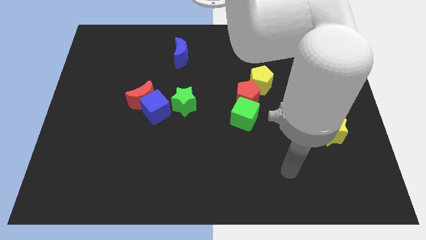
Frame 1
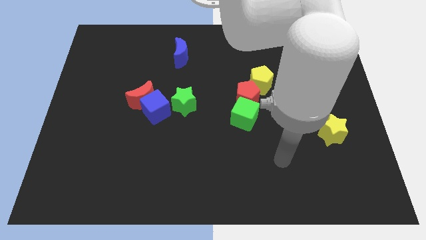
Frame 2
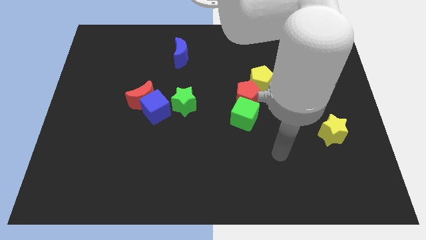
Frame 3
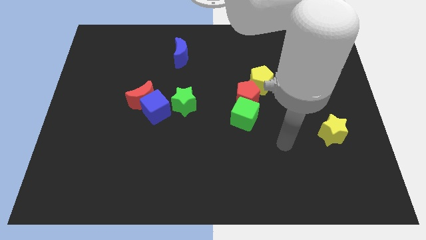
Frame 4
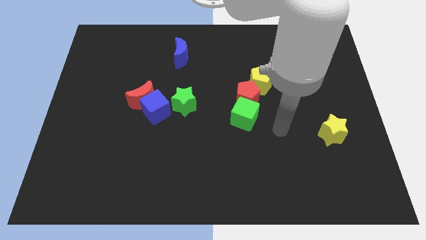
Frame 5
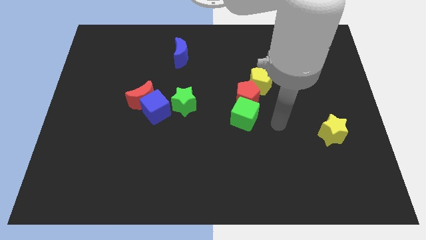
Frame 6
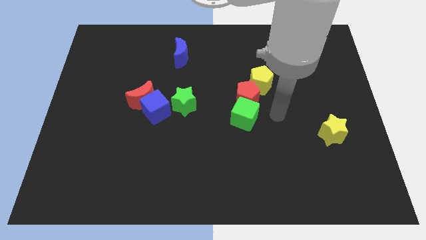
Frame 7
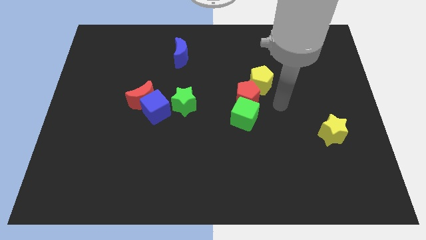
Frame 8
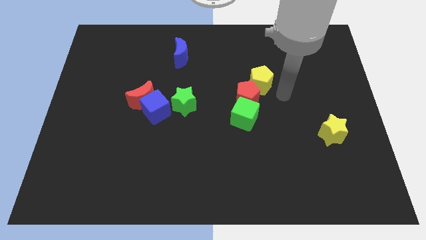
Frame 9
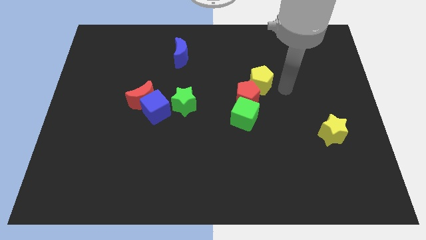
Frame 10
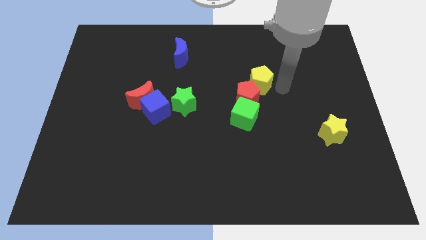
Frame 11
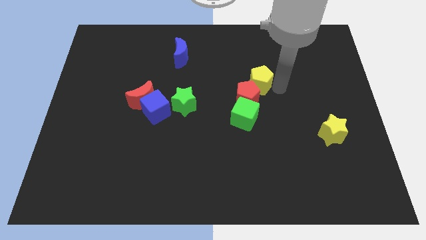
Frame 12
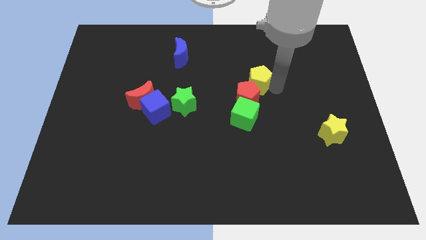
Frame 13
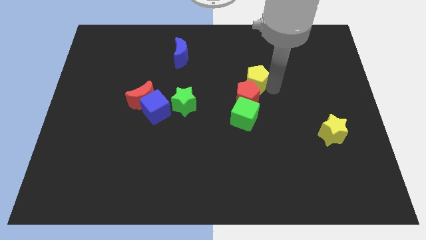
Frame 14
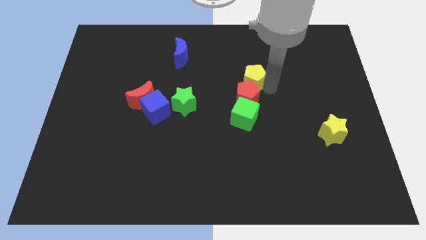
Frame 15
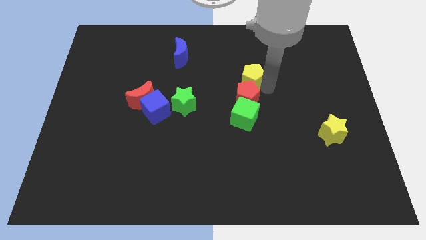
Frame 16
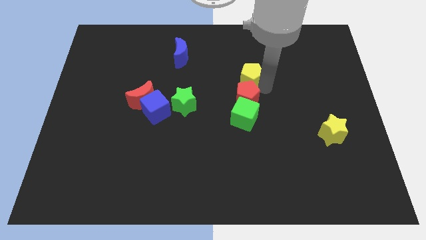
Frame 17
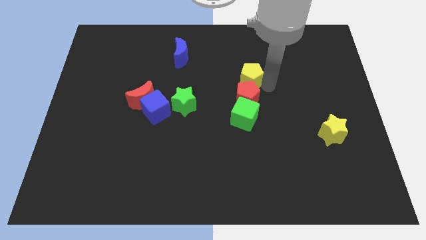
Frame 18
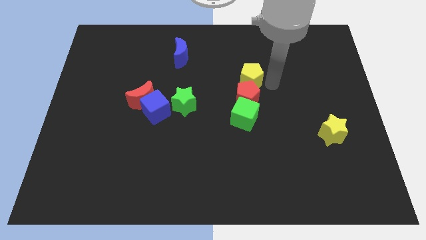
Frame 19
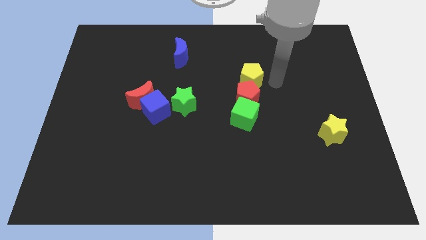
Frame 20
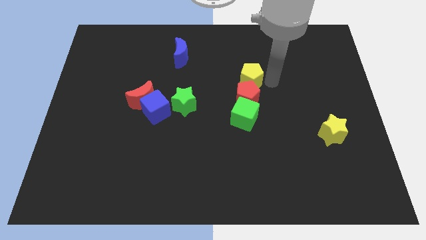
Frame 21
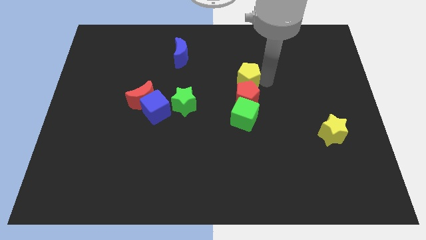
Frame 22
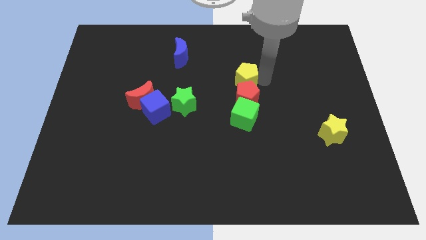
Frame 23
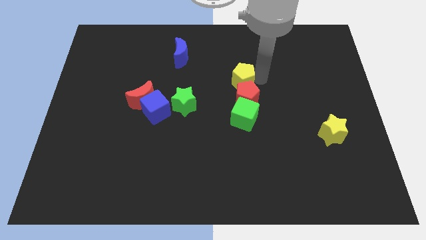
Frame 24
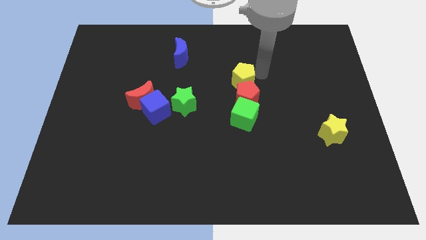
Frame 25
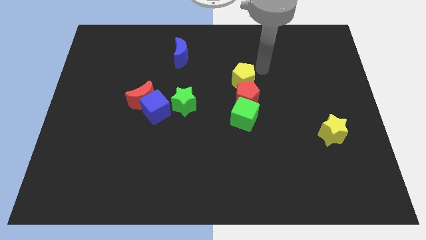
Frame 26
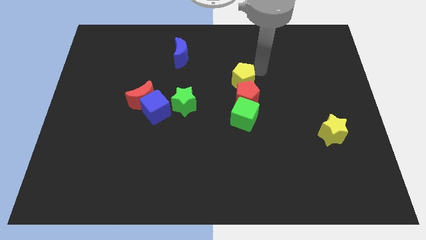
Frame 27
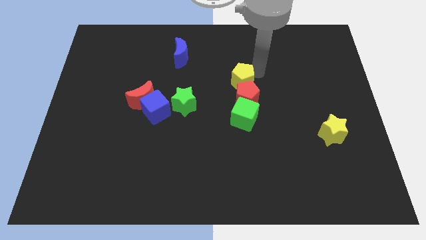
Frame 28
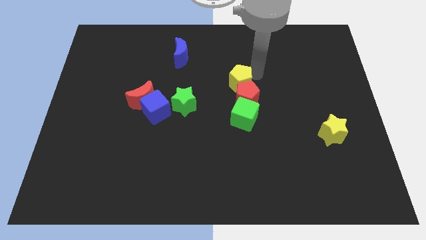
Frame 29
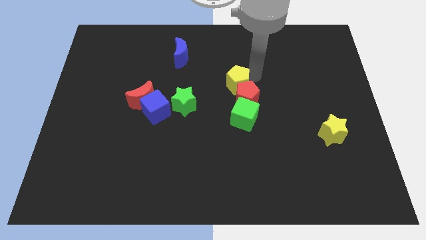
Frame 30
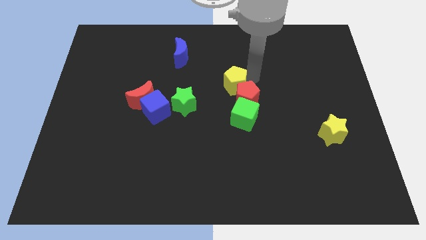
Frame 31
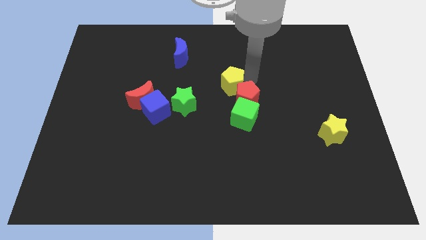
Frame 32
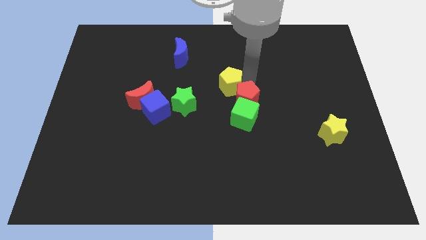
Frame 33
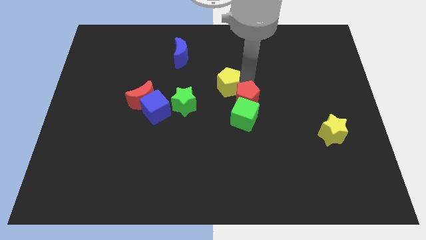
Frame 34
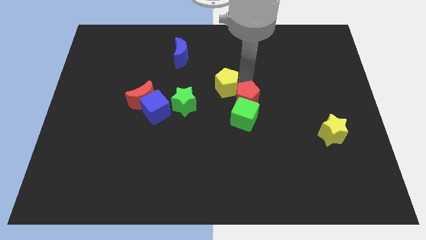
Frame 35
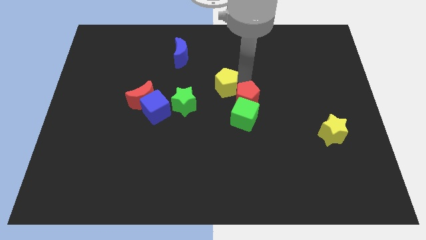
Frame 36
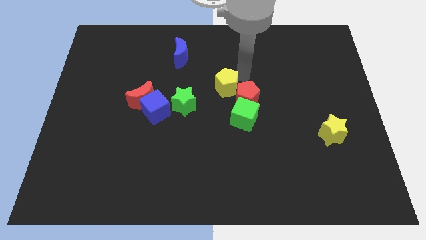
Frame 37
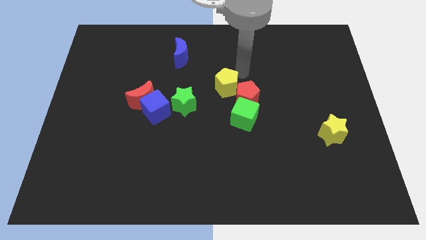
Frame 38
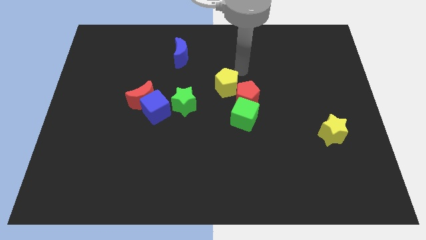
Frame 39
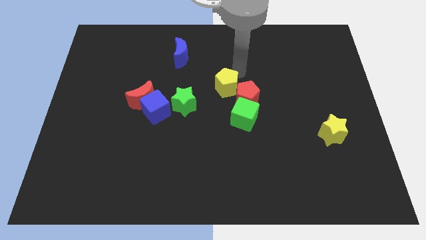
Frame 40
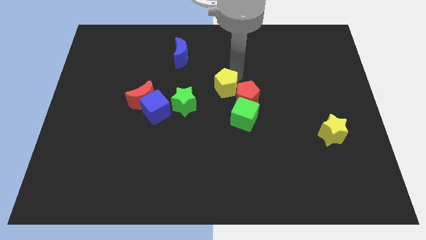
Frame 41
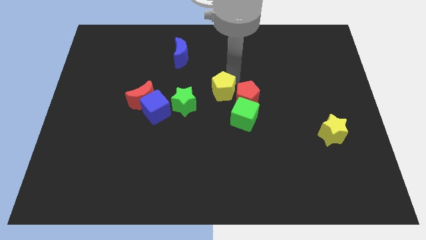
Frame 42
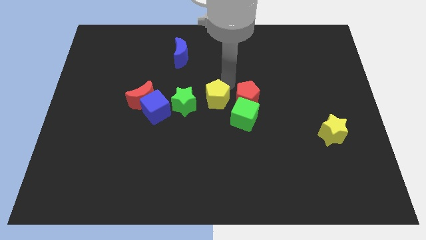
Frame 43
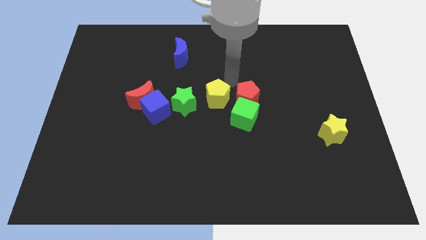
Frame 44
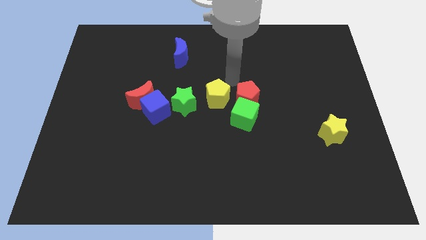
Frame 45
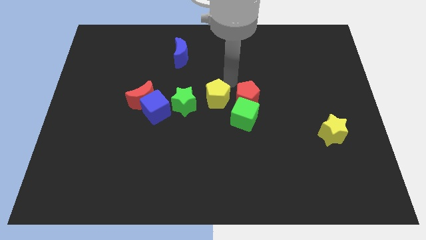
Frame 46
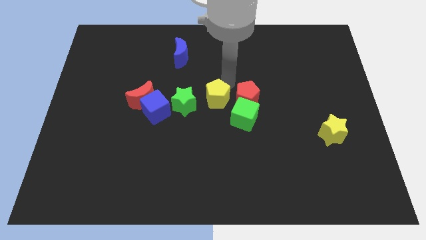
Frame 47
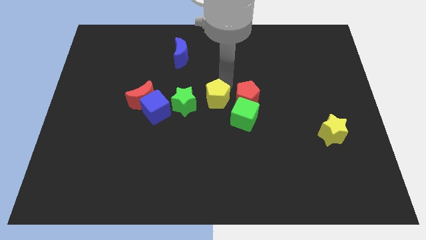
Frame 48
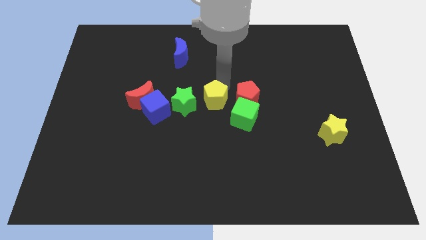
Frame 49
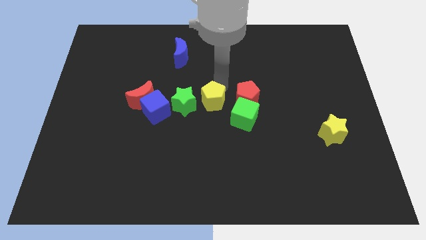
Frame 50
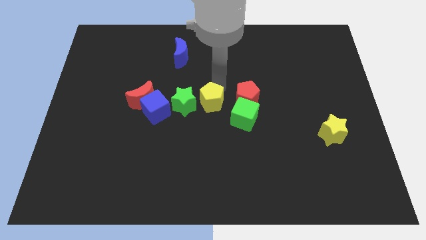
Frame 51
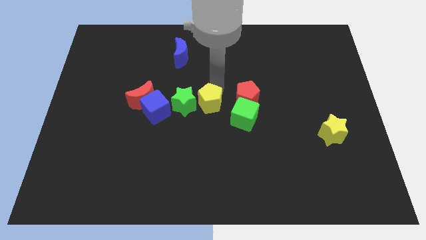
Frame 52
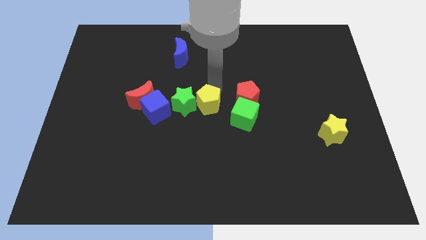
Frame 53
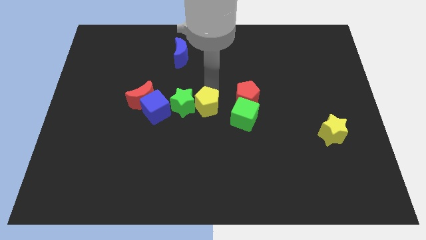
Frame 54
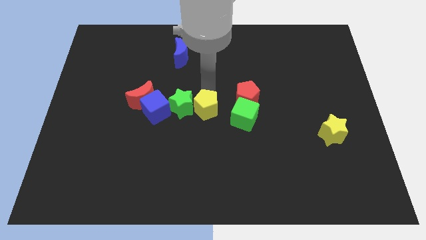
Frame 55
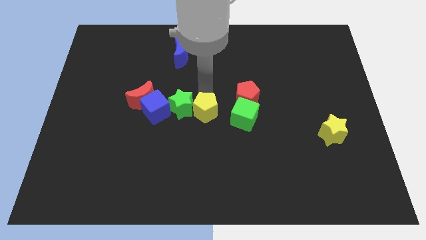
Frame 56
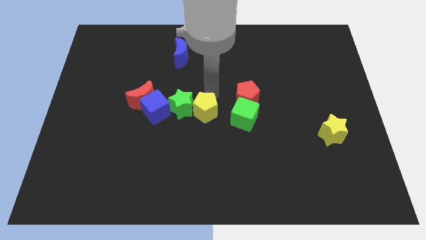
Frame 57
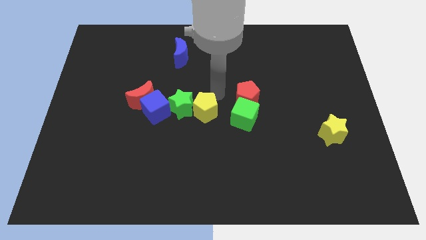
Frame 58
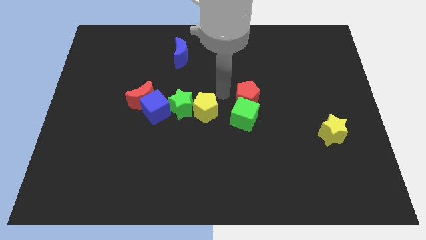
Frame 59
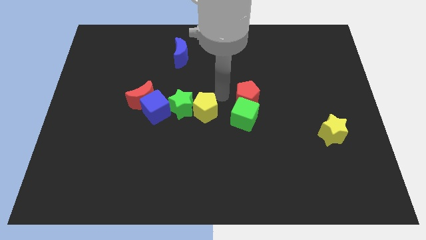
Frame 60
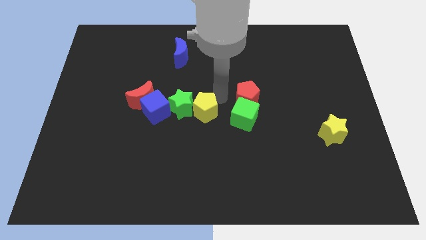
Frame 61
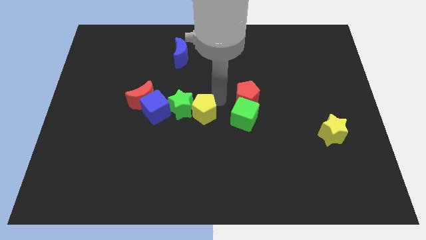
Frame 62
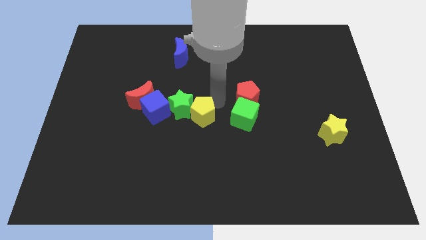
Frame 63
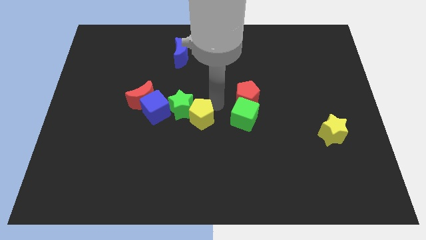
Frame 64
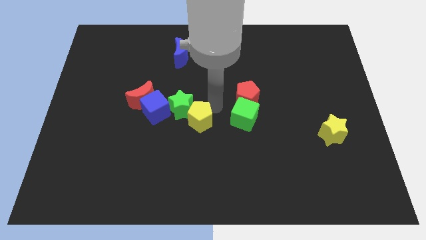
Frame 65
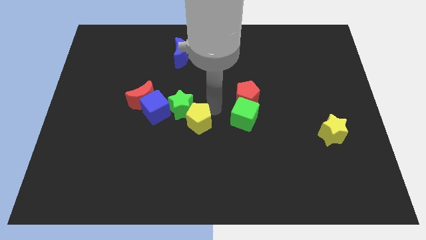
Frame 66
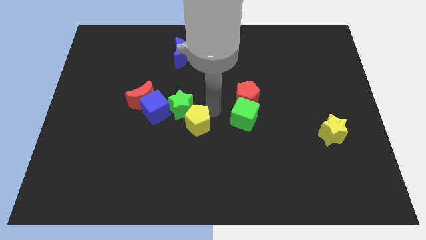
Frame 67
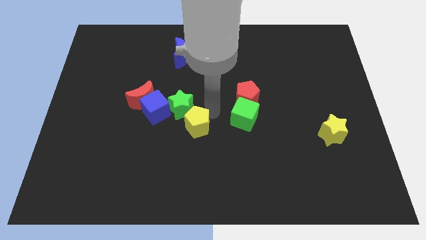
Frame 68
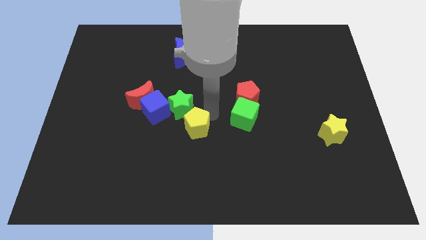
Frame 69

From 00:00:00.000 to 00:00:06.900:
push the yellow pentagon diagonally down and left

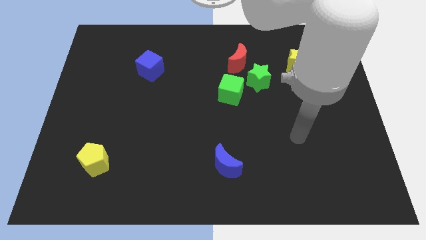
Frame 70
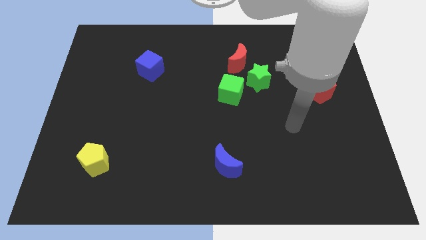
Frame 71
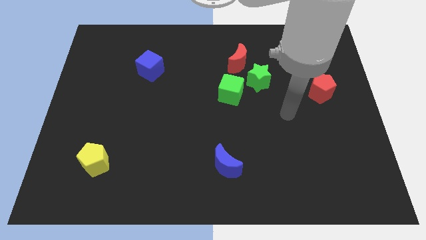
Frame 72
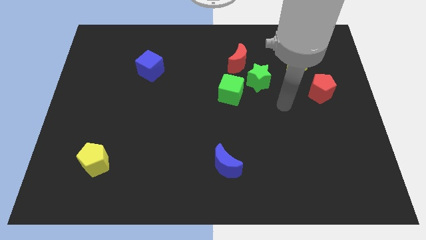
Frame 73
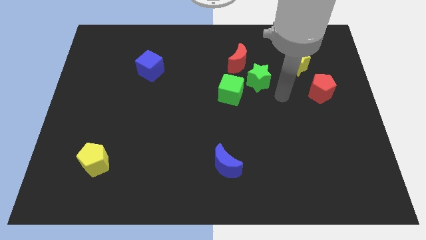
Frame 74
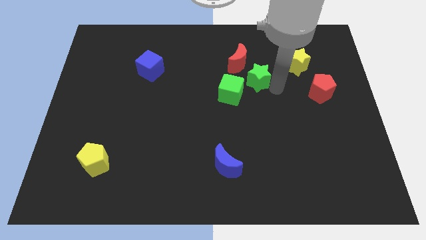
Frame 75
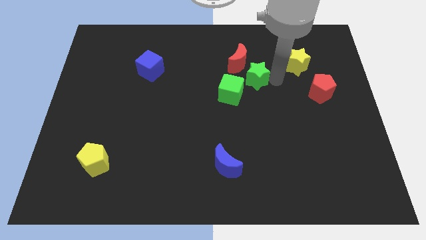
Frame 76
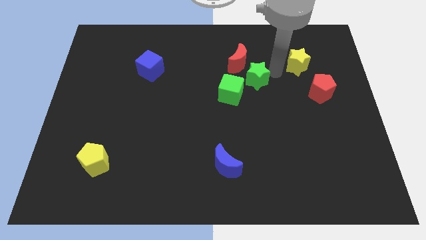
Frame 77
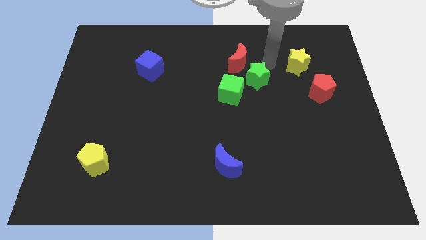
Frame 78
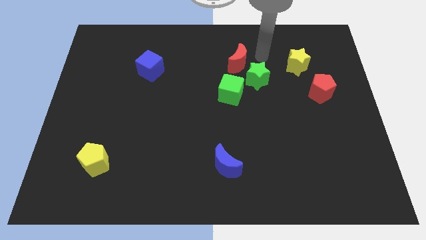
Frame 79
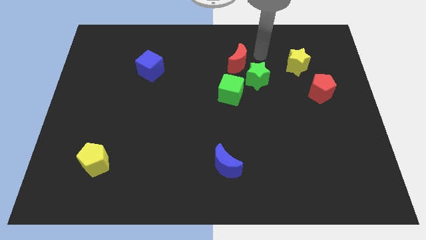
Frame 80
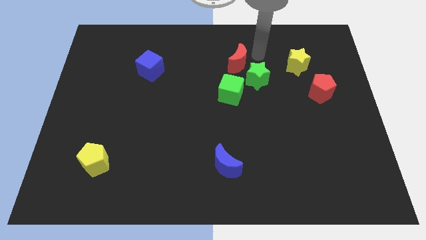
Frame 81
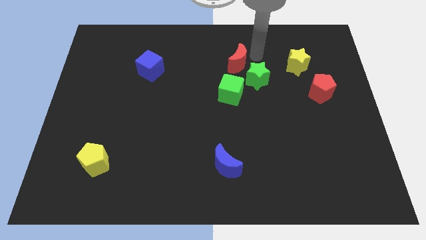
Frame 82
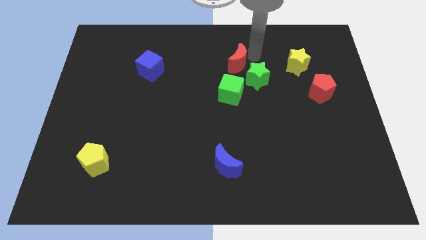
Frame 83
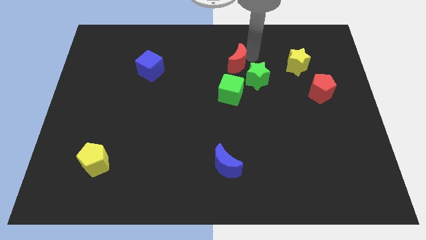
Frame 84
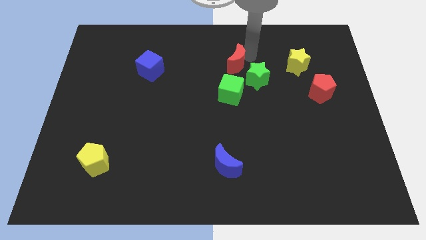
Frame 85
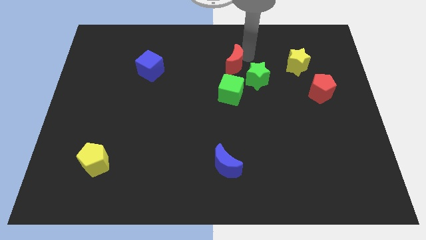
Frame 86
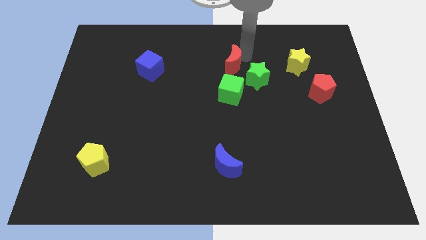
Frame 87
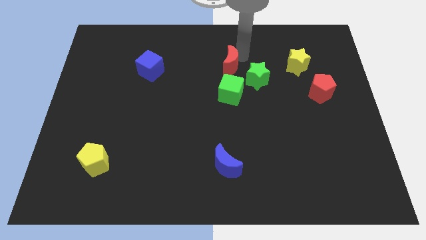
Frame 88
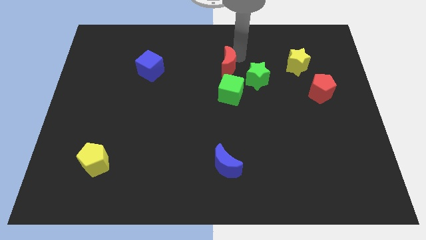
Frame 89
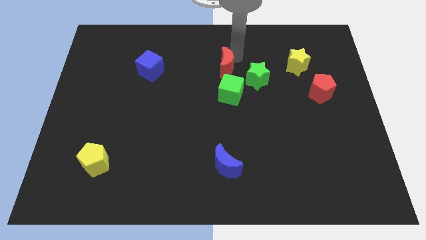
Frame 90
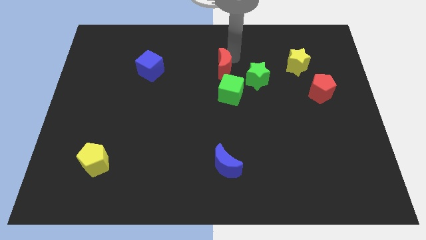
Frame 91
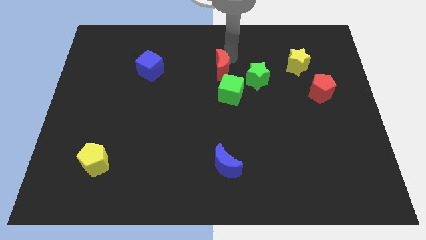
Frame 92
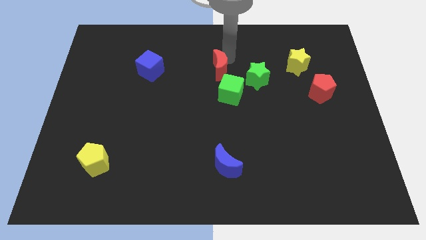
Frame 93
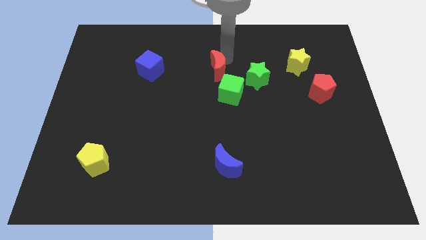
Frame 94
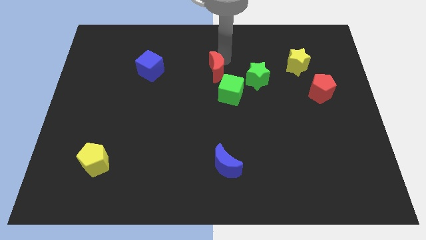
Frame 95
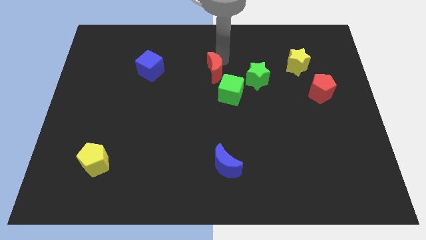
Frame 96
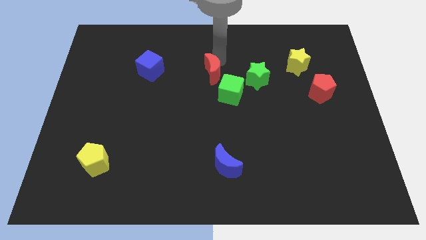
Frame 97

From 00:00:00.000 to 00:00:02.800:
move the red moon a little bit diagonally downwards and left
